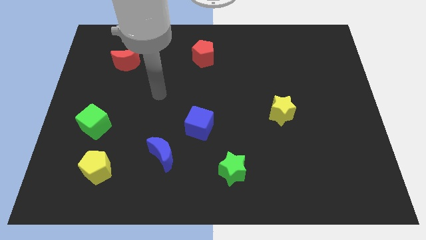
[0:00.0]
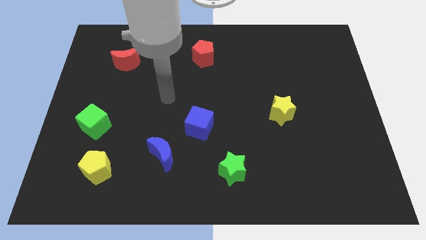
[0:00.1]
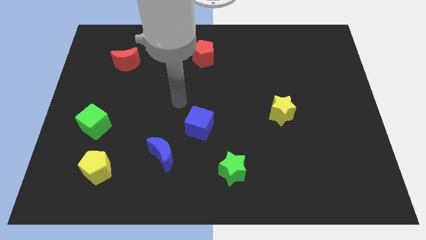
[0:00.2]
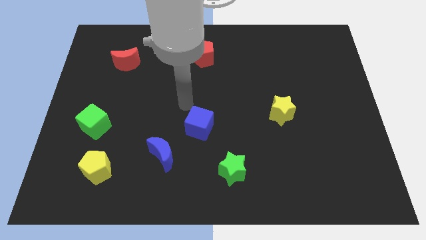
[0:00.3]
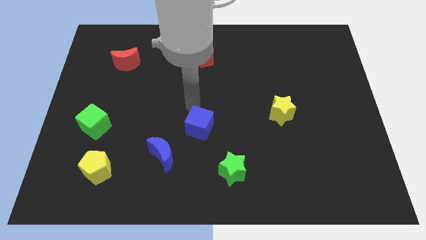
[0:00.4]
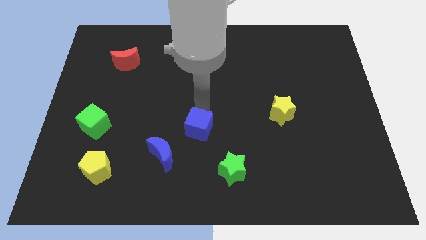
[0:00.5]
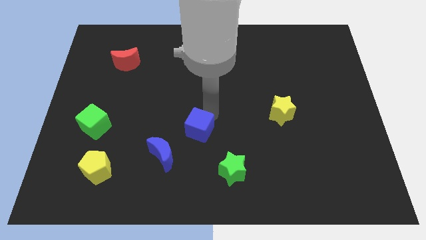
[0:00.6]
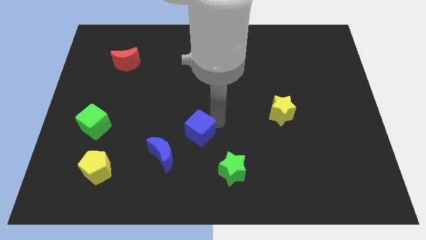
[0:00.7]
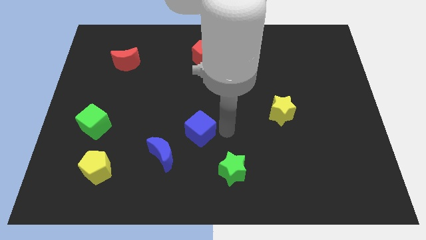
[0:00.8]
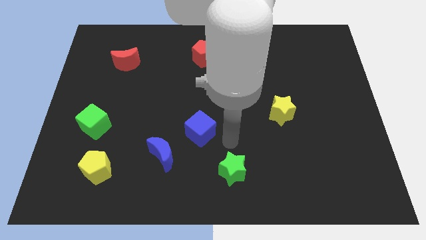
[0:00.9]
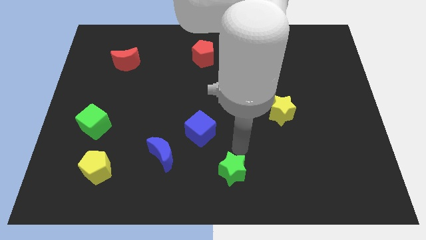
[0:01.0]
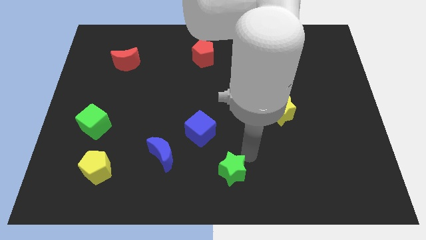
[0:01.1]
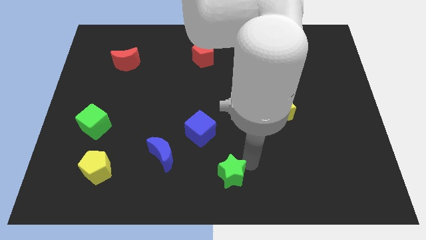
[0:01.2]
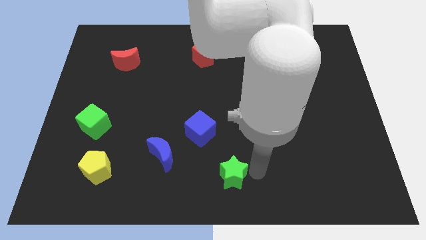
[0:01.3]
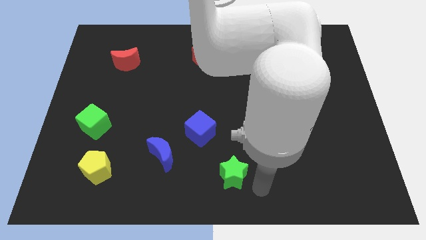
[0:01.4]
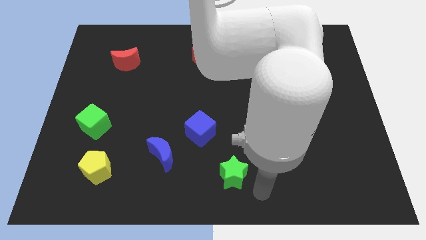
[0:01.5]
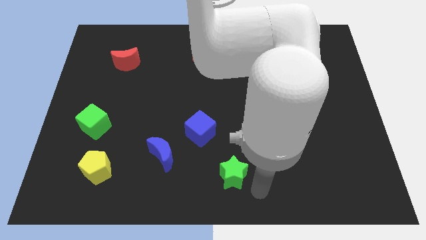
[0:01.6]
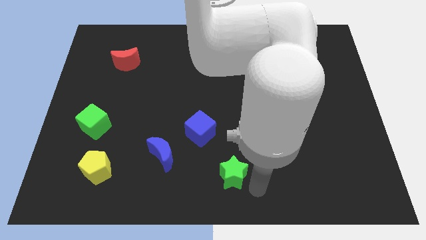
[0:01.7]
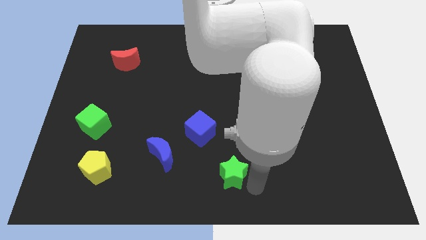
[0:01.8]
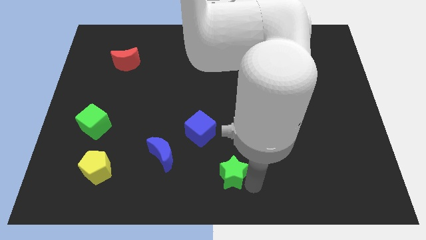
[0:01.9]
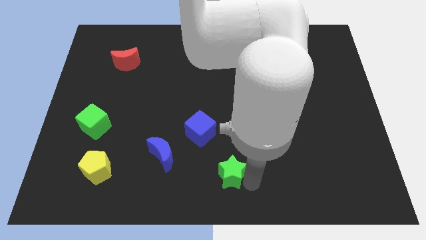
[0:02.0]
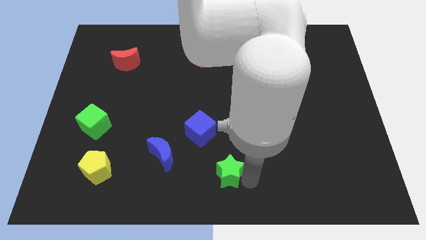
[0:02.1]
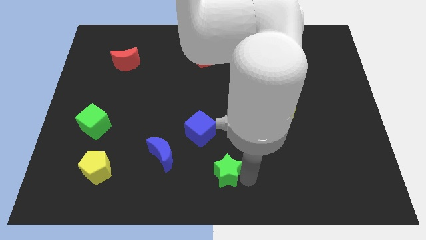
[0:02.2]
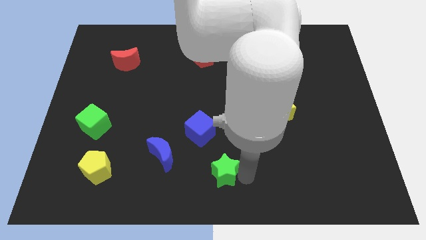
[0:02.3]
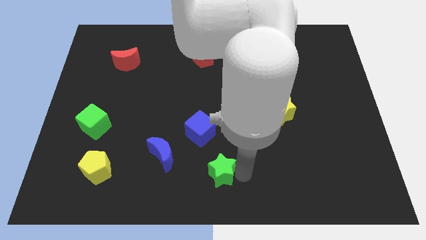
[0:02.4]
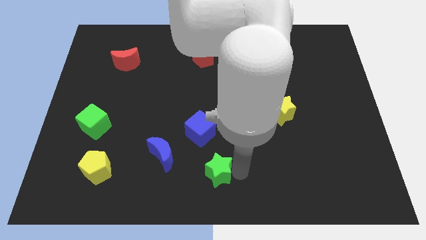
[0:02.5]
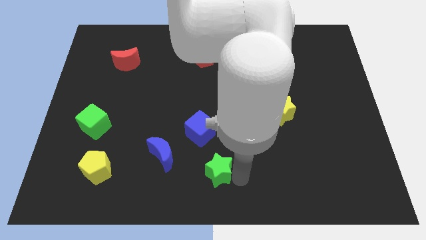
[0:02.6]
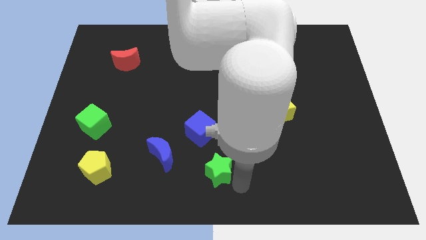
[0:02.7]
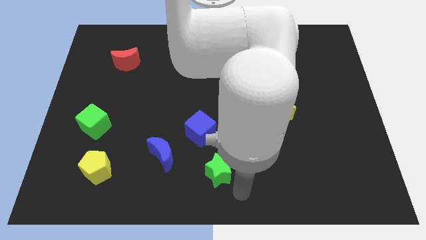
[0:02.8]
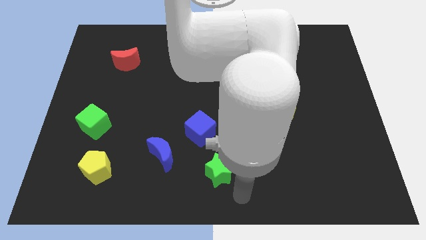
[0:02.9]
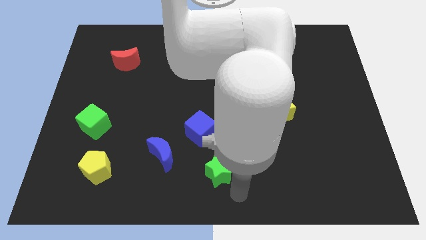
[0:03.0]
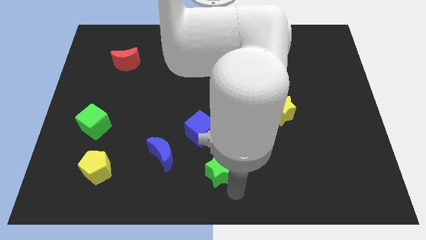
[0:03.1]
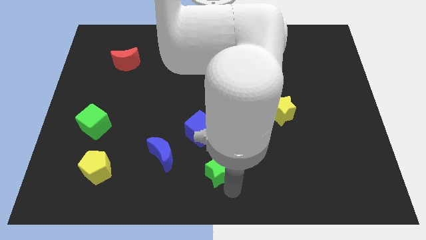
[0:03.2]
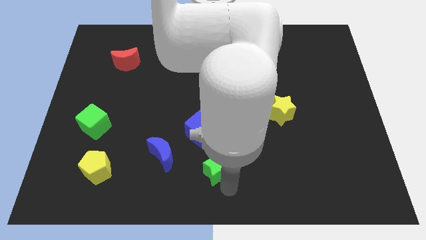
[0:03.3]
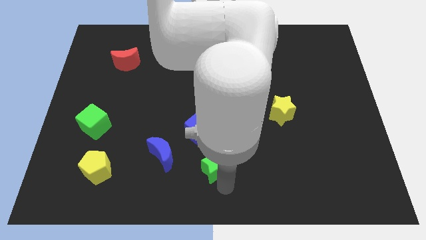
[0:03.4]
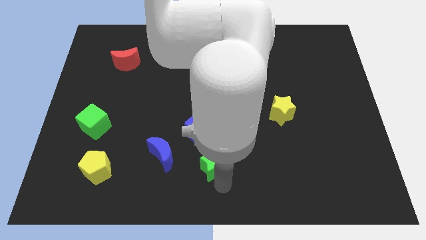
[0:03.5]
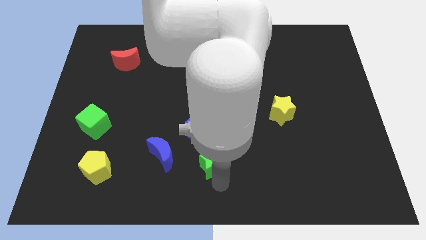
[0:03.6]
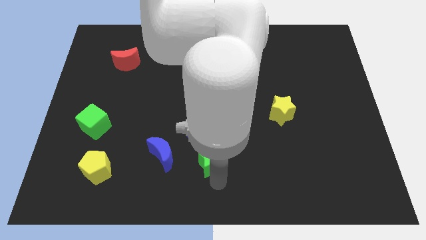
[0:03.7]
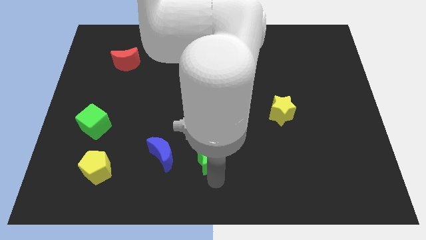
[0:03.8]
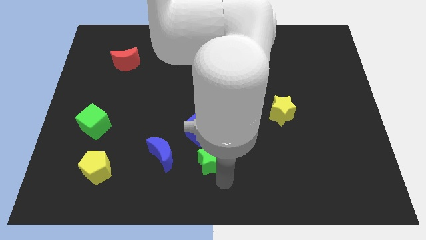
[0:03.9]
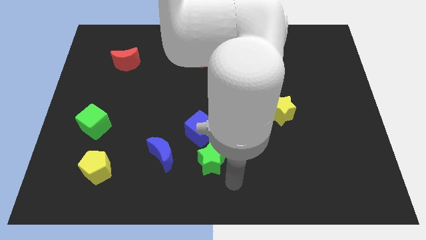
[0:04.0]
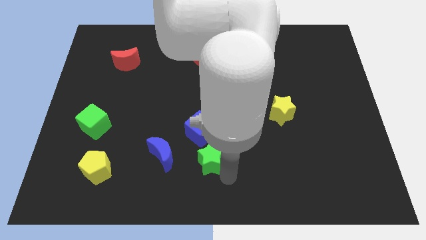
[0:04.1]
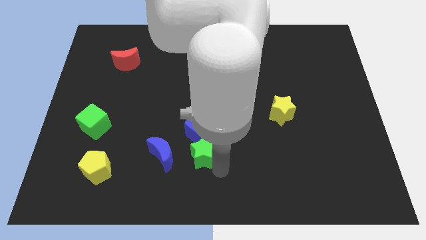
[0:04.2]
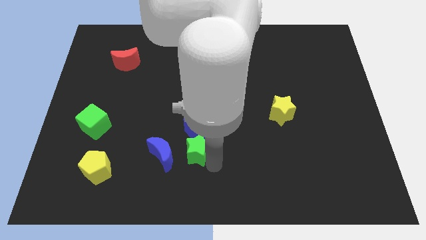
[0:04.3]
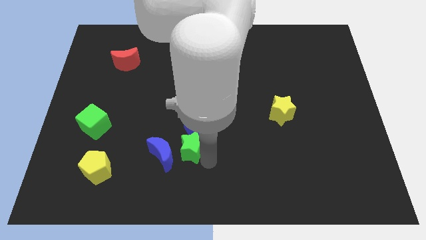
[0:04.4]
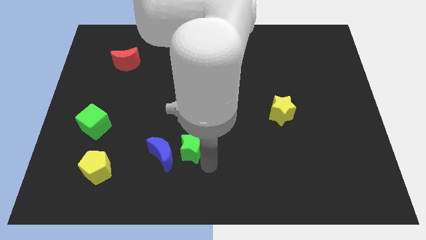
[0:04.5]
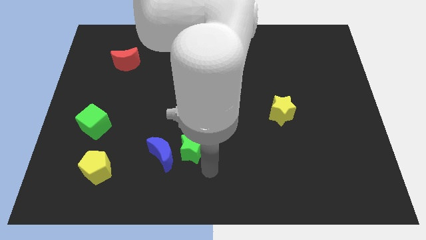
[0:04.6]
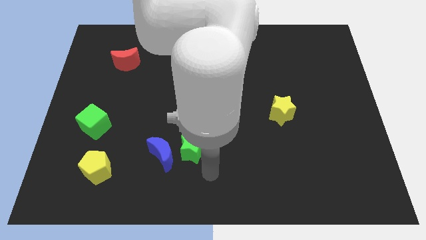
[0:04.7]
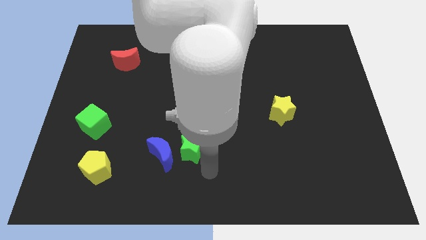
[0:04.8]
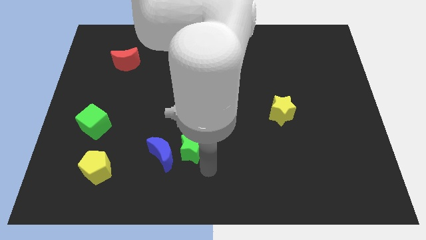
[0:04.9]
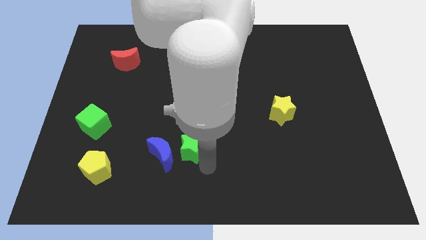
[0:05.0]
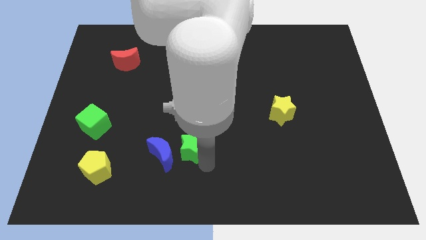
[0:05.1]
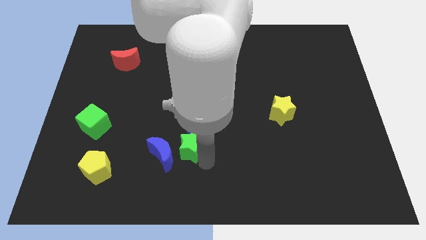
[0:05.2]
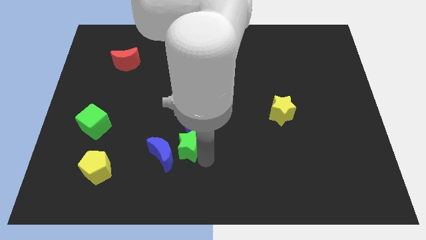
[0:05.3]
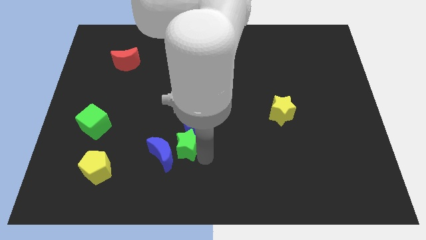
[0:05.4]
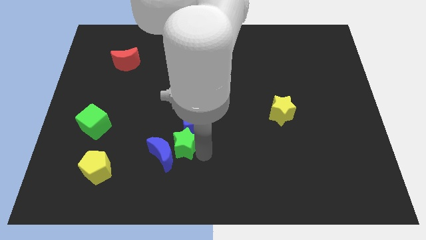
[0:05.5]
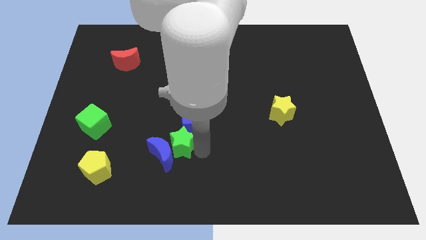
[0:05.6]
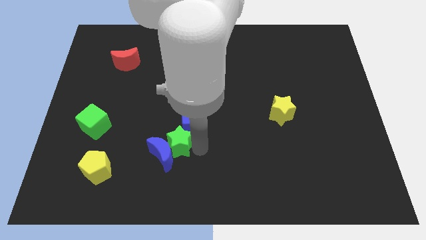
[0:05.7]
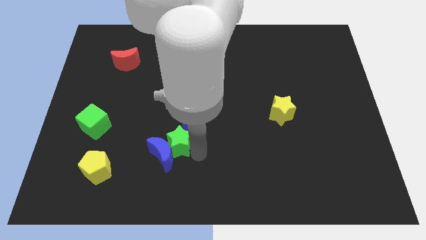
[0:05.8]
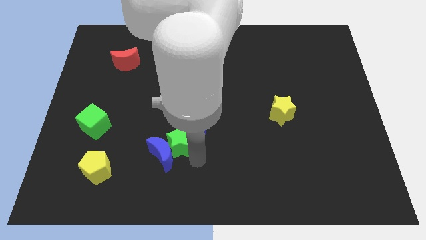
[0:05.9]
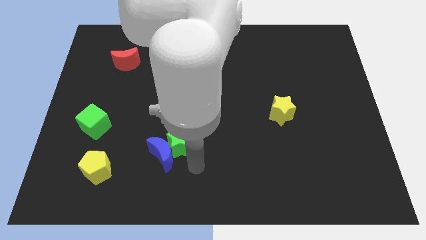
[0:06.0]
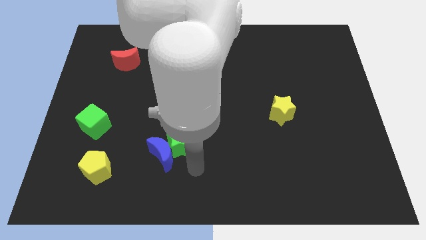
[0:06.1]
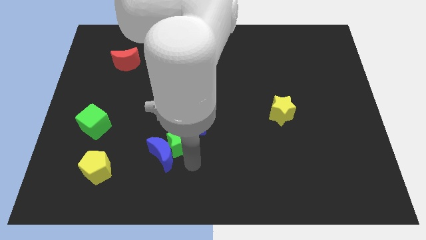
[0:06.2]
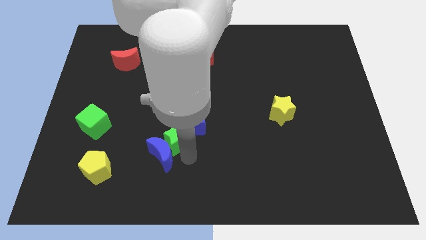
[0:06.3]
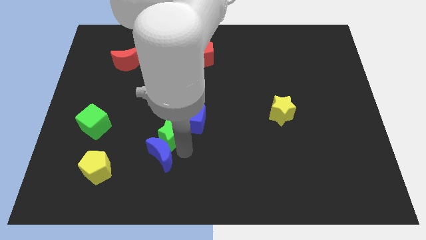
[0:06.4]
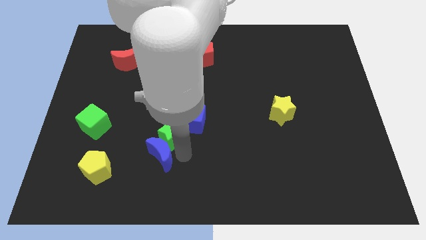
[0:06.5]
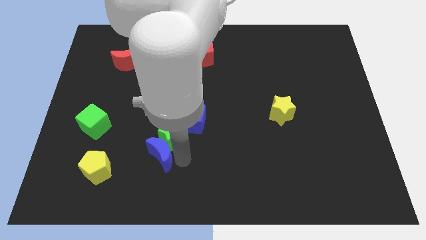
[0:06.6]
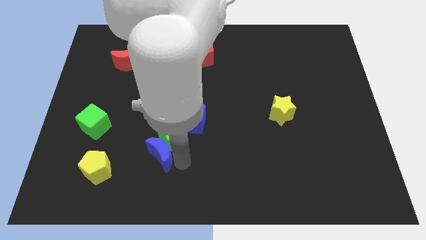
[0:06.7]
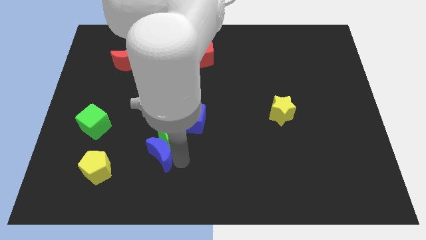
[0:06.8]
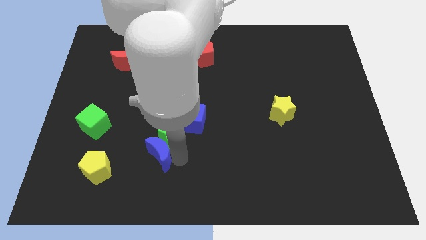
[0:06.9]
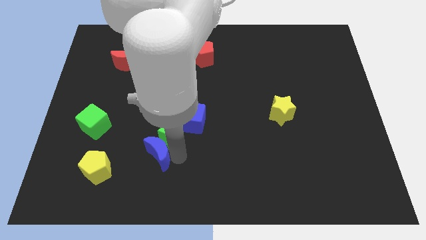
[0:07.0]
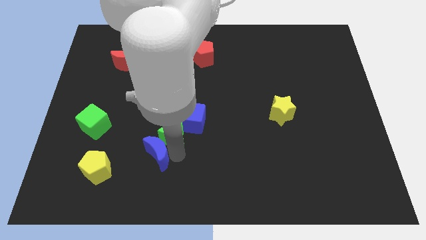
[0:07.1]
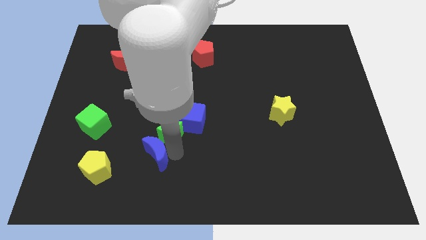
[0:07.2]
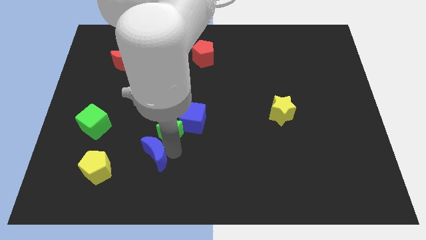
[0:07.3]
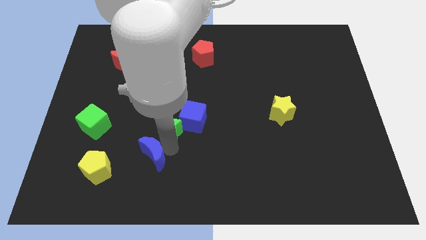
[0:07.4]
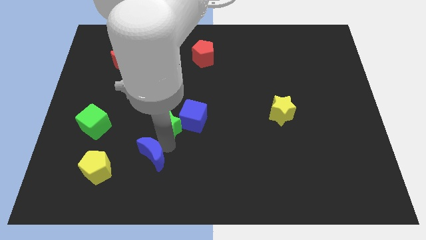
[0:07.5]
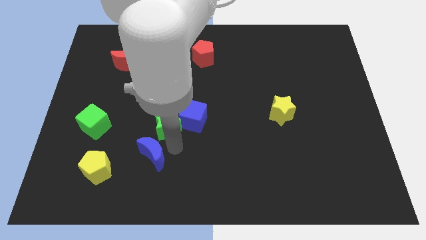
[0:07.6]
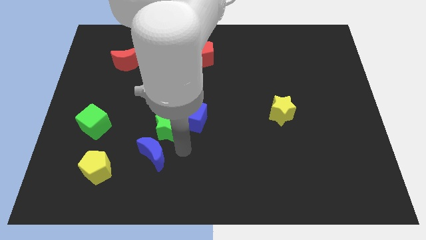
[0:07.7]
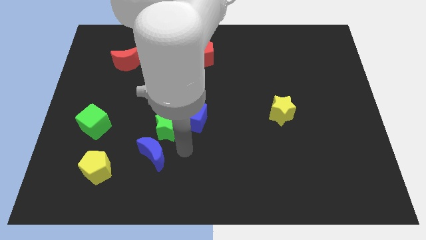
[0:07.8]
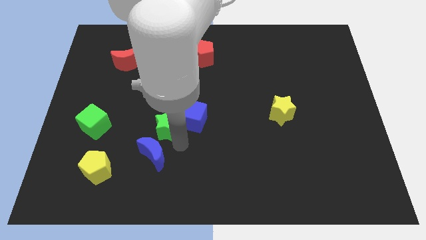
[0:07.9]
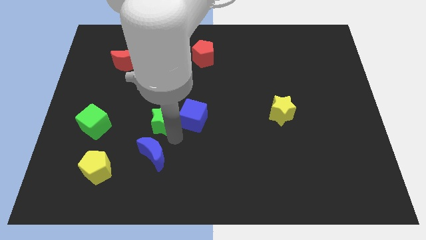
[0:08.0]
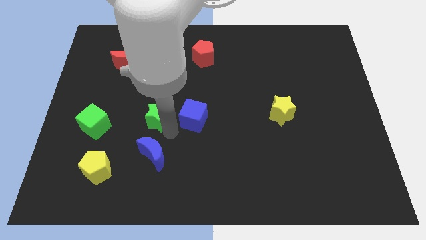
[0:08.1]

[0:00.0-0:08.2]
push the green star upwards and to the left diagonally
